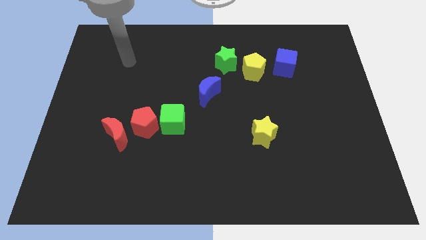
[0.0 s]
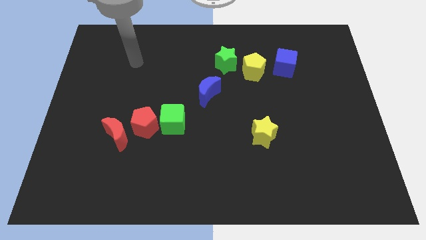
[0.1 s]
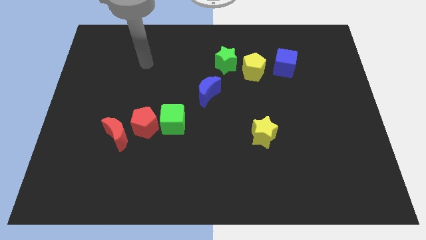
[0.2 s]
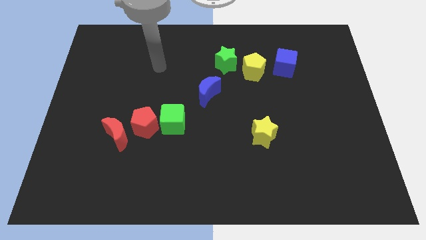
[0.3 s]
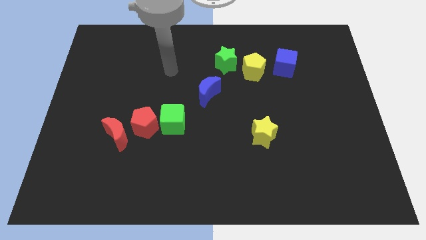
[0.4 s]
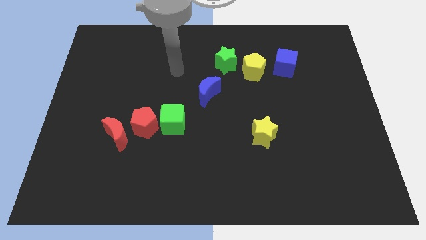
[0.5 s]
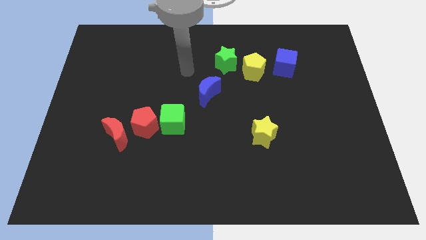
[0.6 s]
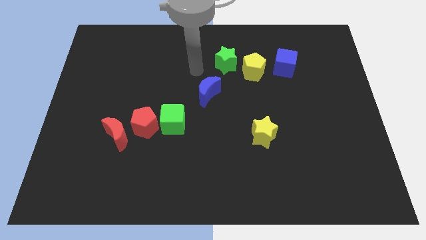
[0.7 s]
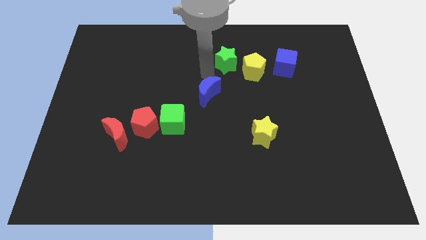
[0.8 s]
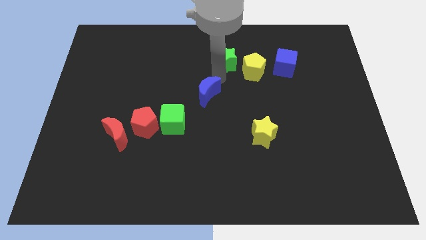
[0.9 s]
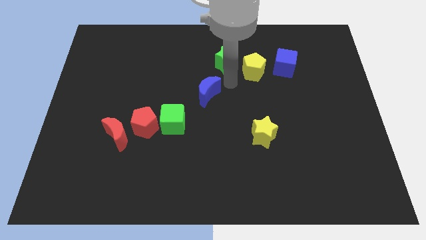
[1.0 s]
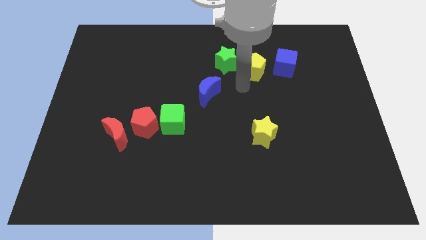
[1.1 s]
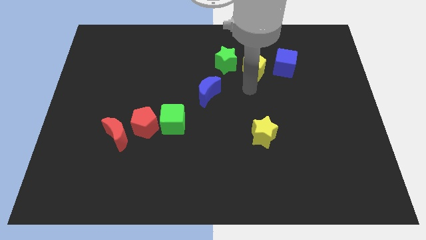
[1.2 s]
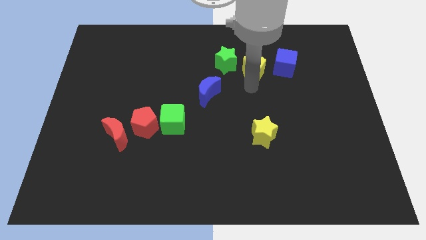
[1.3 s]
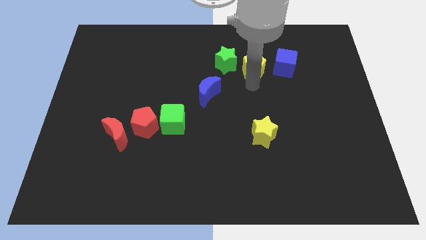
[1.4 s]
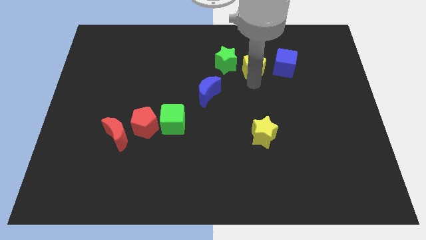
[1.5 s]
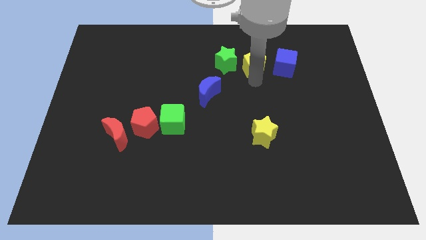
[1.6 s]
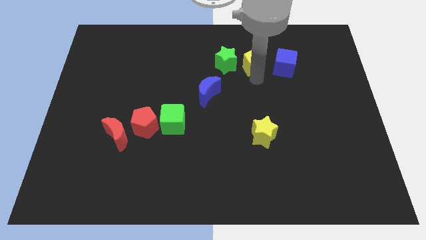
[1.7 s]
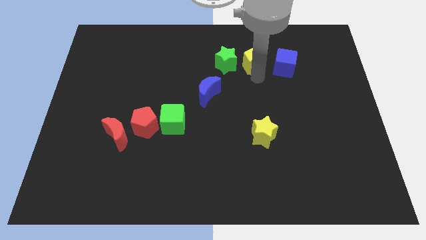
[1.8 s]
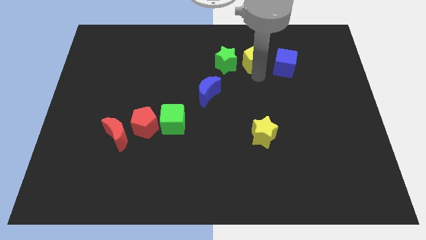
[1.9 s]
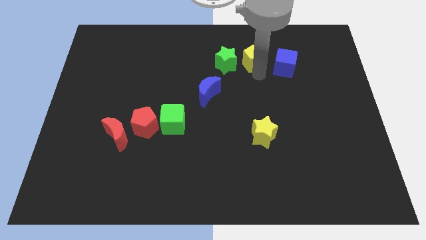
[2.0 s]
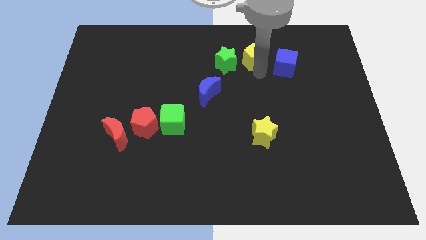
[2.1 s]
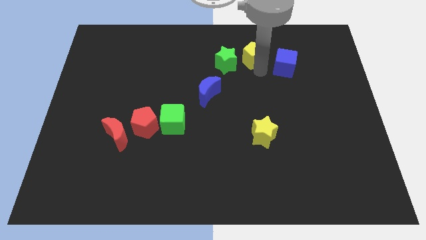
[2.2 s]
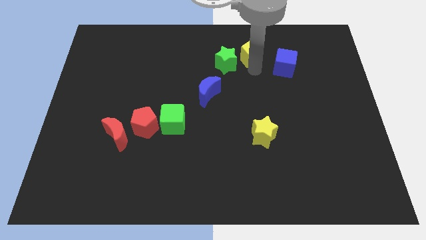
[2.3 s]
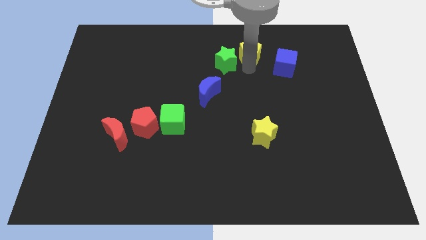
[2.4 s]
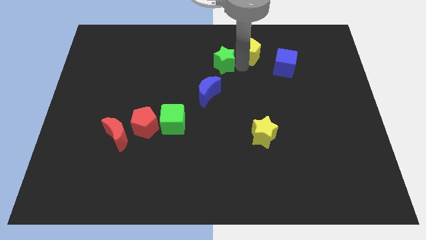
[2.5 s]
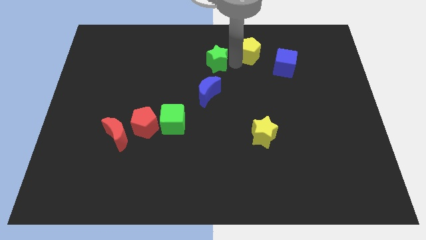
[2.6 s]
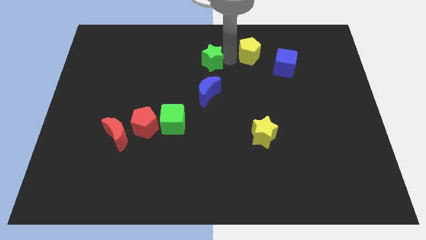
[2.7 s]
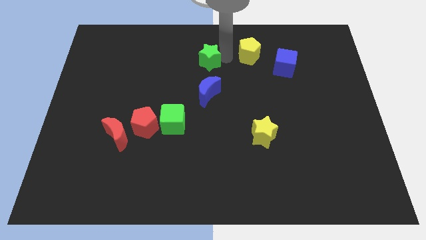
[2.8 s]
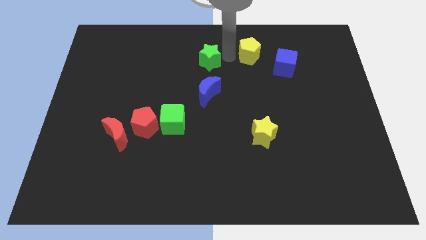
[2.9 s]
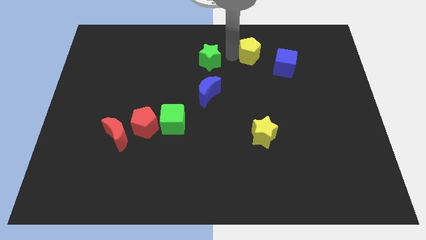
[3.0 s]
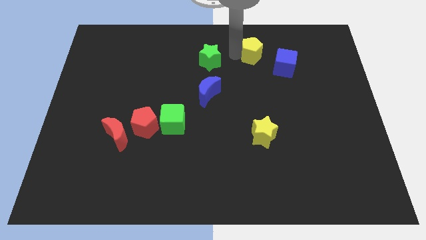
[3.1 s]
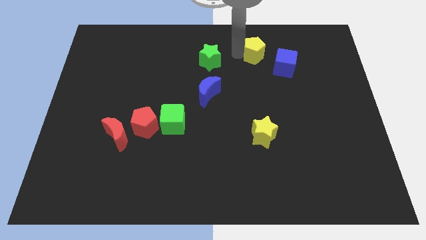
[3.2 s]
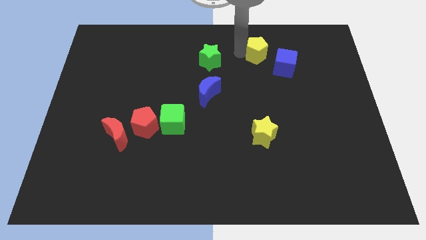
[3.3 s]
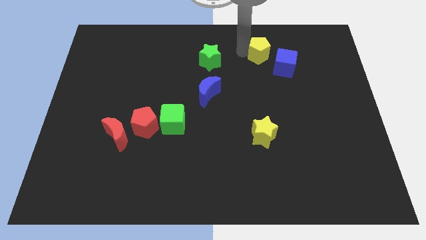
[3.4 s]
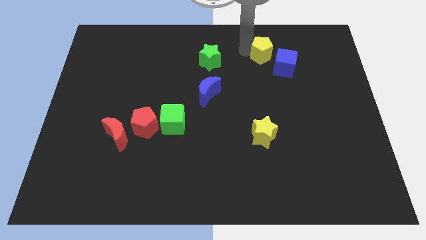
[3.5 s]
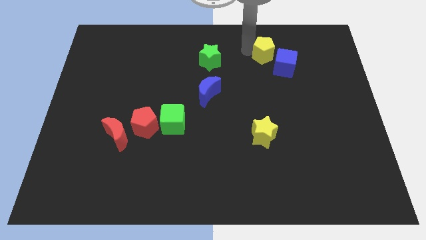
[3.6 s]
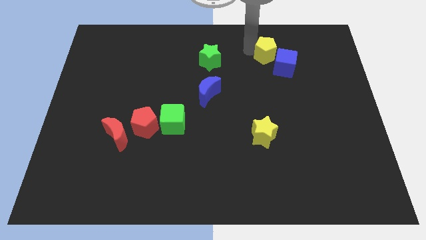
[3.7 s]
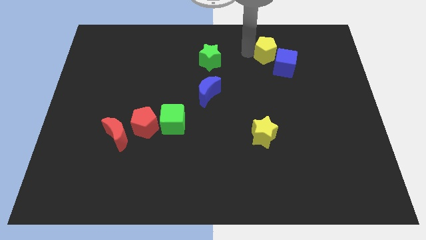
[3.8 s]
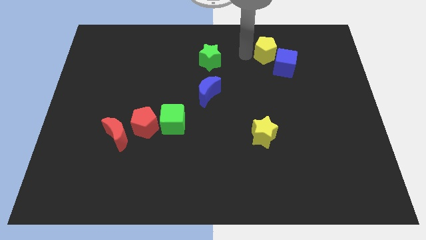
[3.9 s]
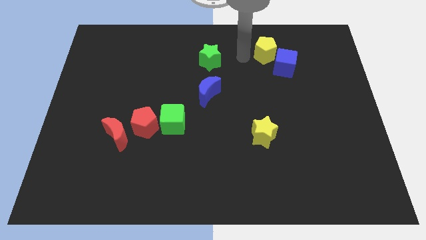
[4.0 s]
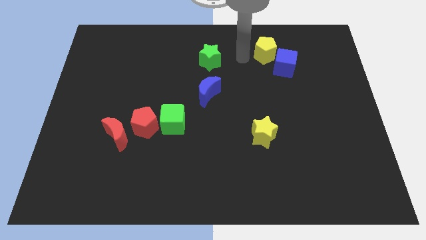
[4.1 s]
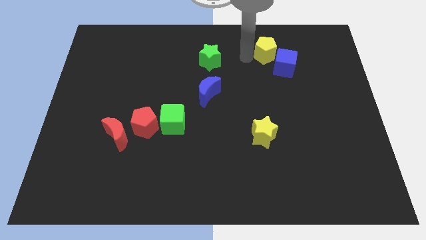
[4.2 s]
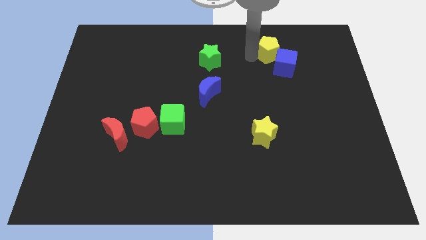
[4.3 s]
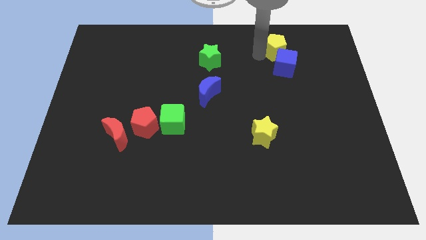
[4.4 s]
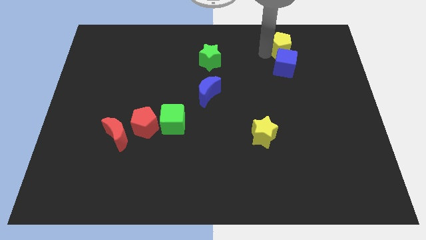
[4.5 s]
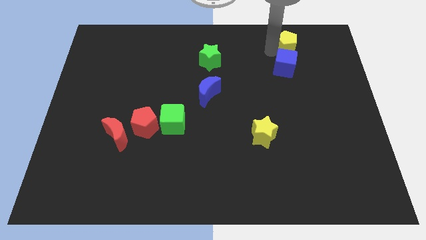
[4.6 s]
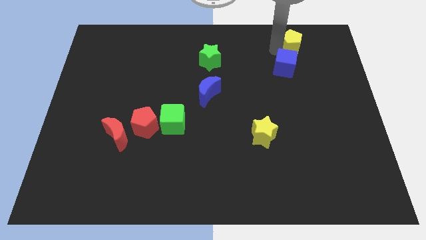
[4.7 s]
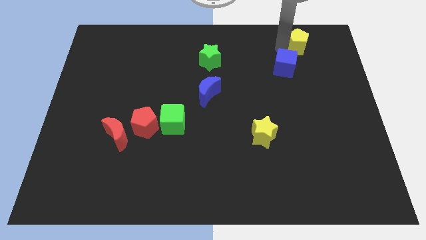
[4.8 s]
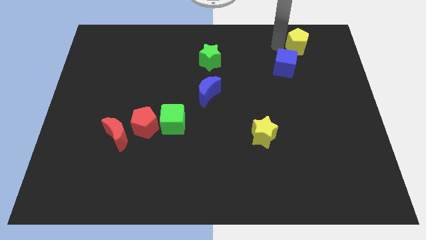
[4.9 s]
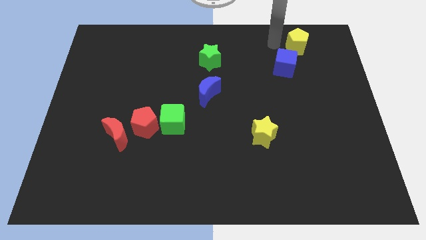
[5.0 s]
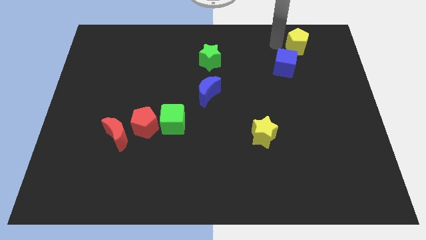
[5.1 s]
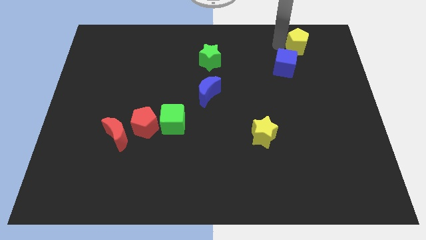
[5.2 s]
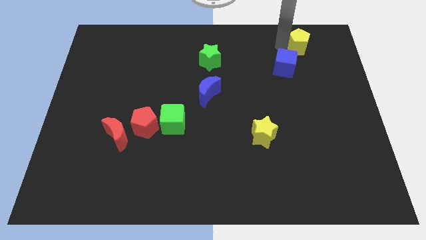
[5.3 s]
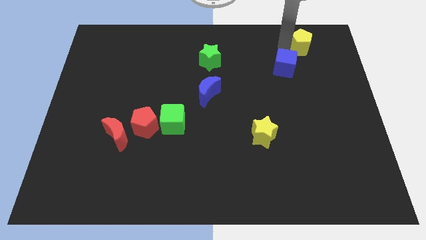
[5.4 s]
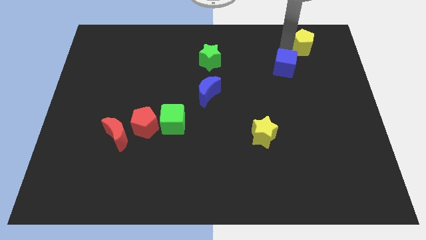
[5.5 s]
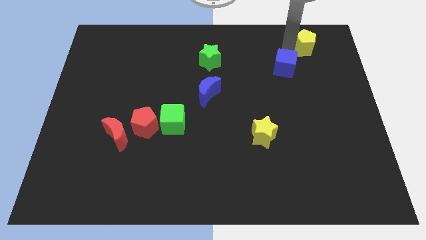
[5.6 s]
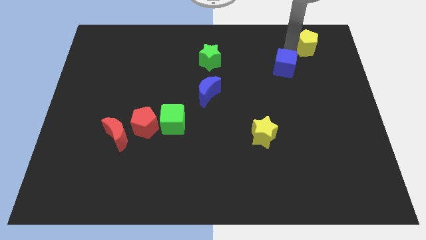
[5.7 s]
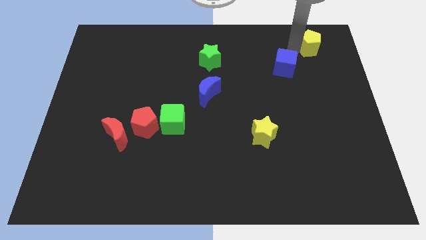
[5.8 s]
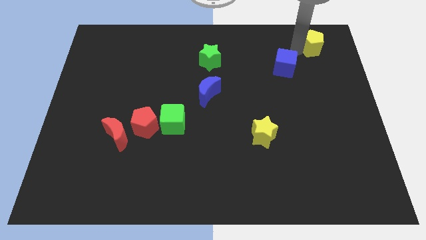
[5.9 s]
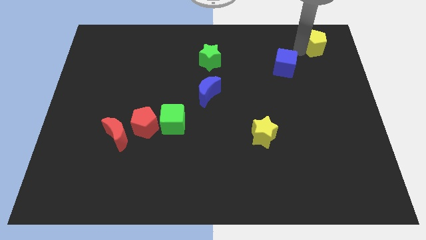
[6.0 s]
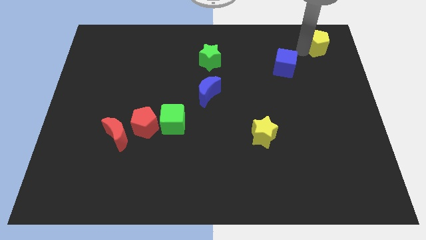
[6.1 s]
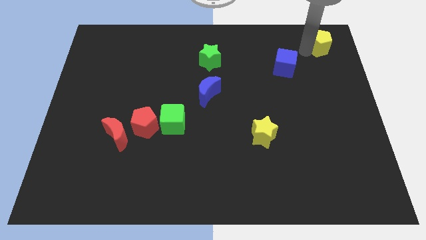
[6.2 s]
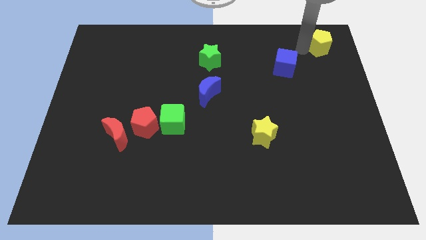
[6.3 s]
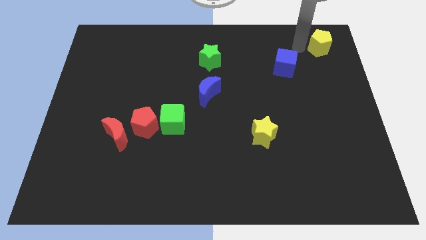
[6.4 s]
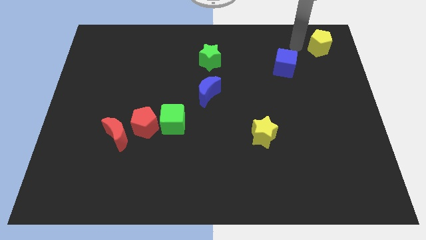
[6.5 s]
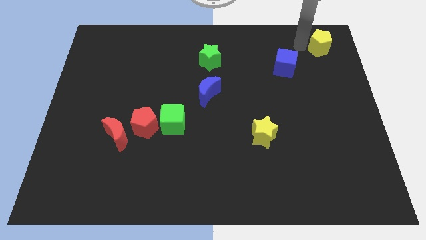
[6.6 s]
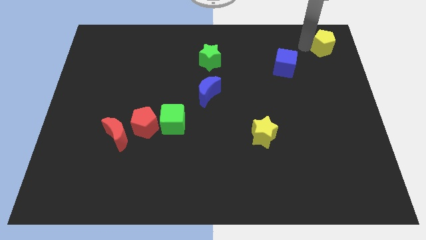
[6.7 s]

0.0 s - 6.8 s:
put the yellow pentagon to the top right

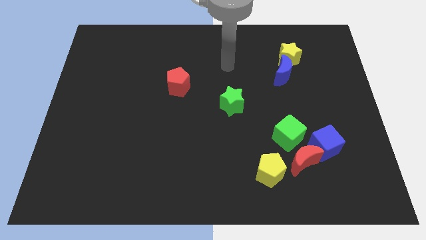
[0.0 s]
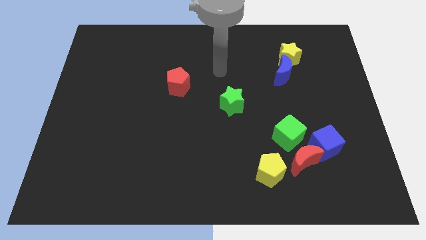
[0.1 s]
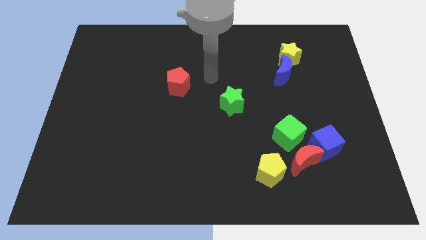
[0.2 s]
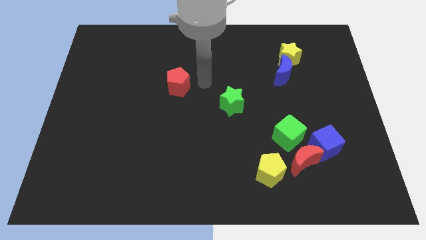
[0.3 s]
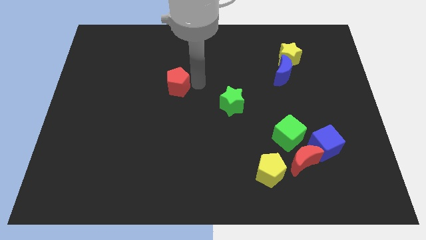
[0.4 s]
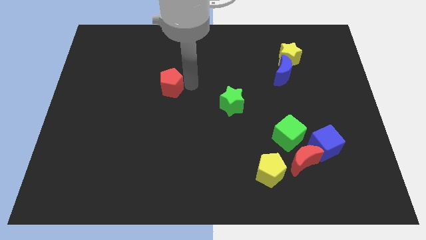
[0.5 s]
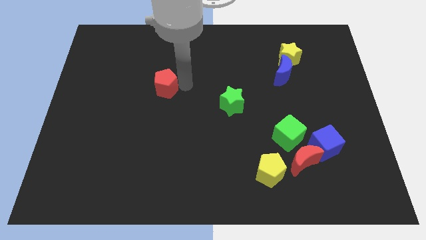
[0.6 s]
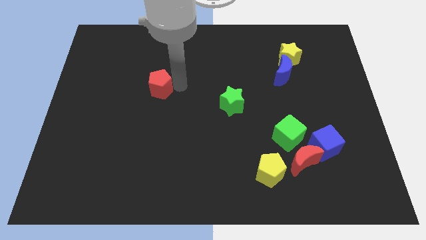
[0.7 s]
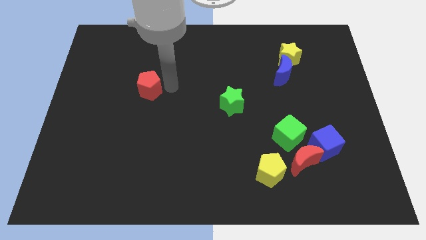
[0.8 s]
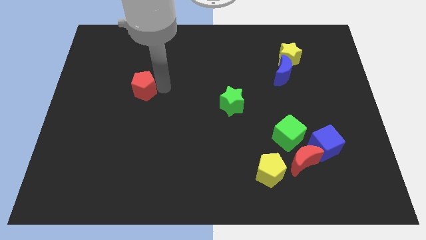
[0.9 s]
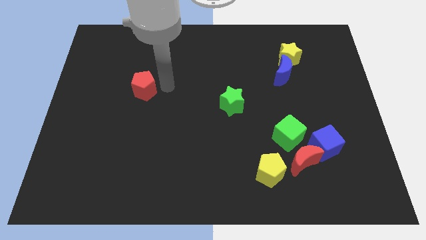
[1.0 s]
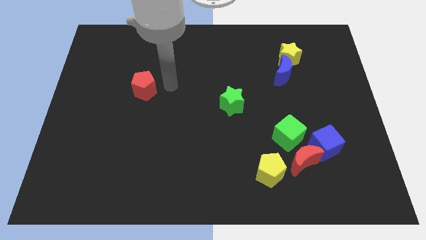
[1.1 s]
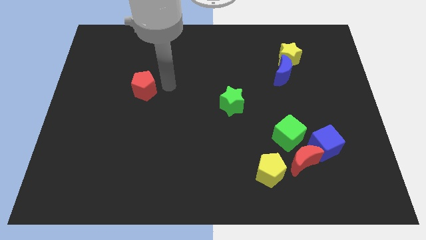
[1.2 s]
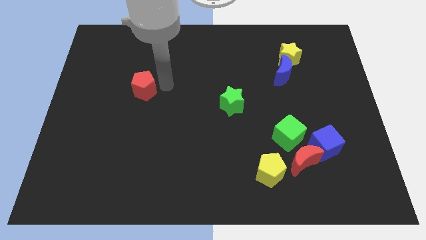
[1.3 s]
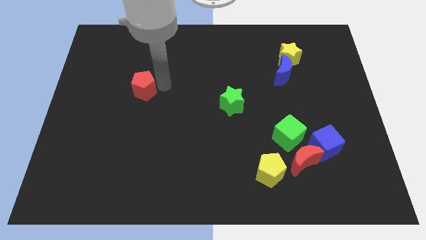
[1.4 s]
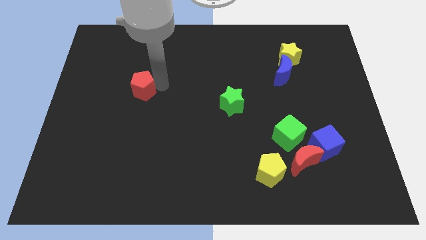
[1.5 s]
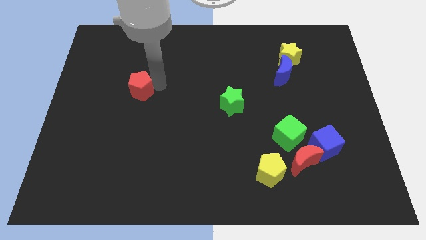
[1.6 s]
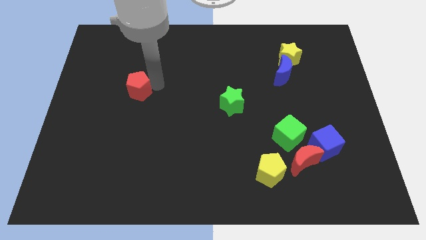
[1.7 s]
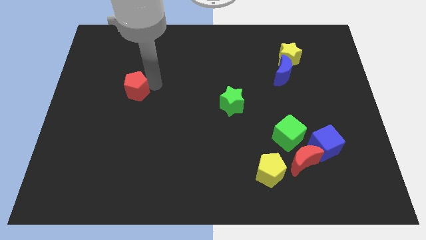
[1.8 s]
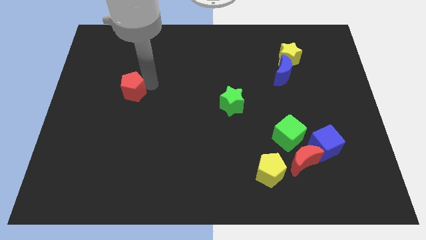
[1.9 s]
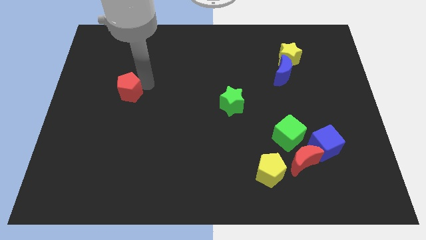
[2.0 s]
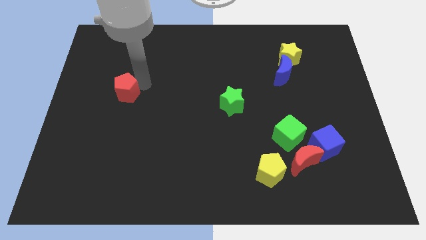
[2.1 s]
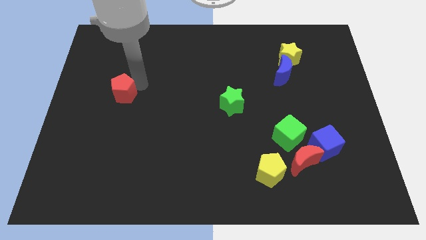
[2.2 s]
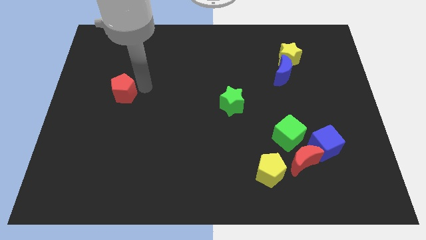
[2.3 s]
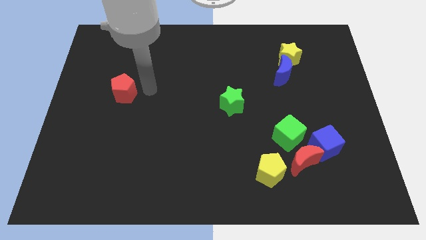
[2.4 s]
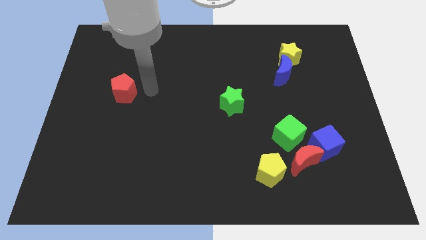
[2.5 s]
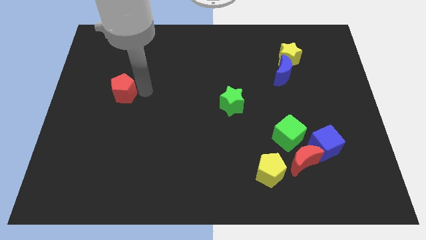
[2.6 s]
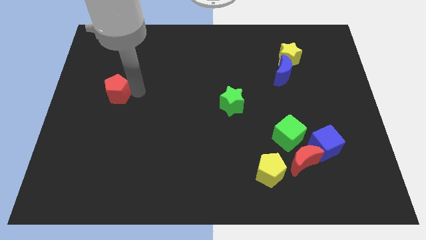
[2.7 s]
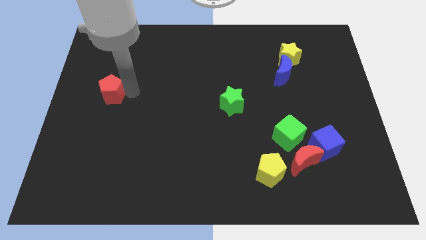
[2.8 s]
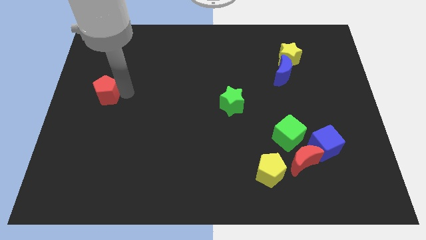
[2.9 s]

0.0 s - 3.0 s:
push the red pentagon to the center left
